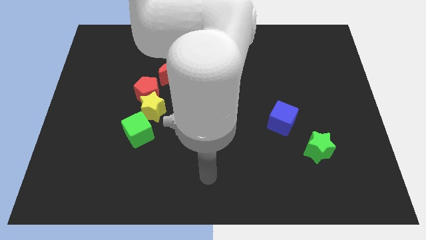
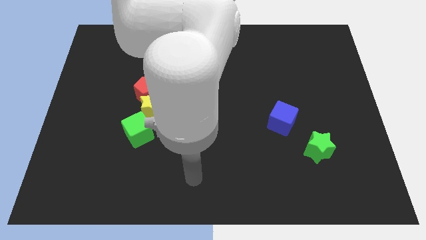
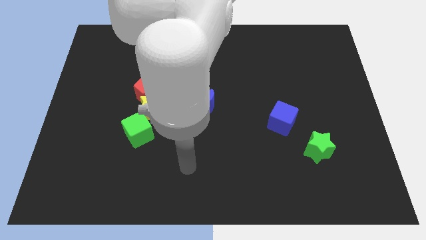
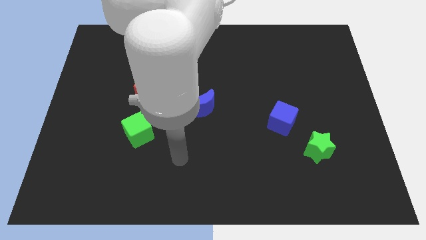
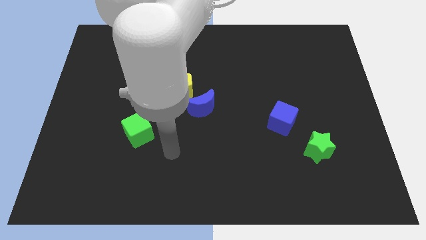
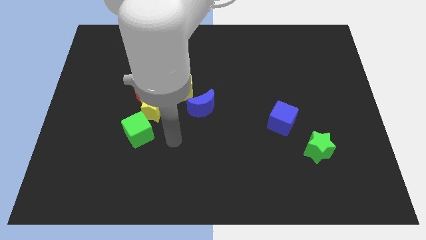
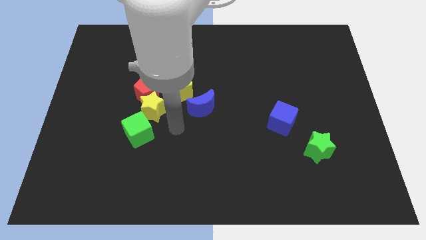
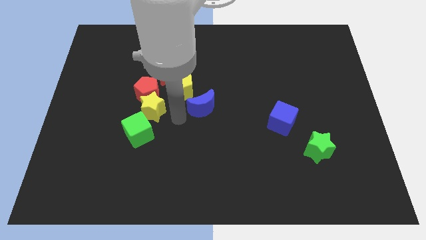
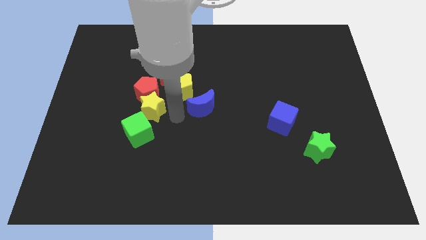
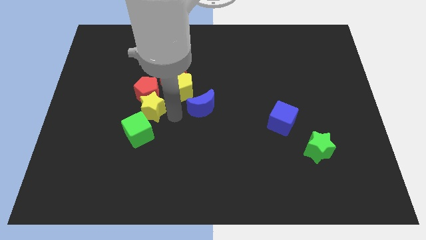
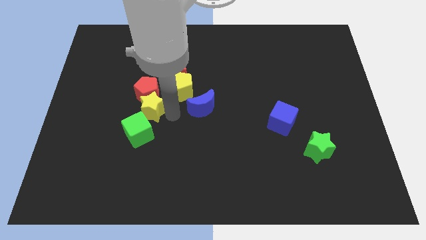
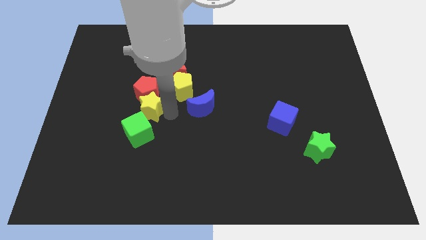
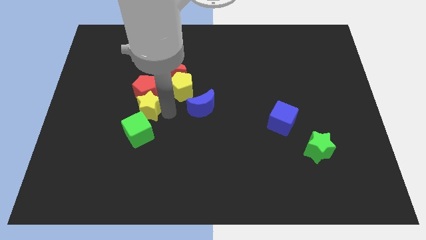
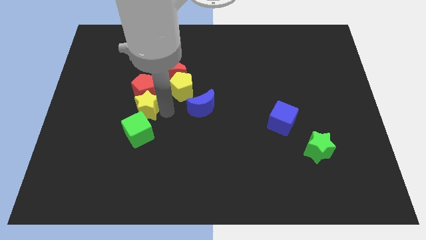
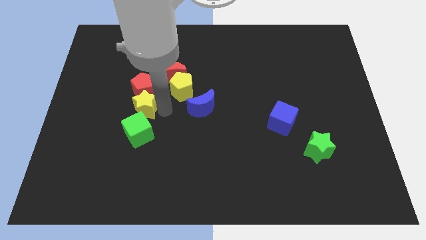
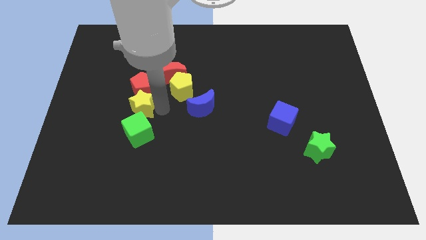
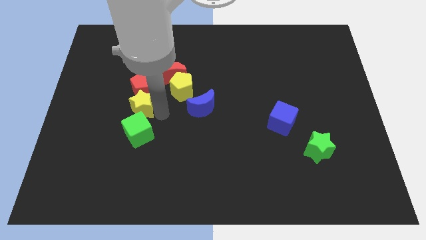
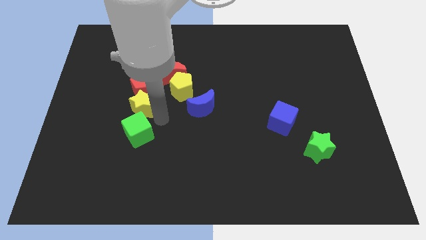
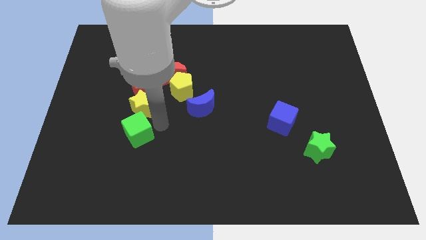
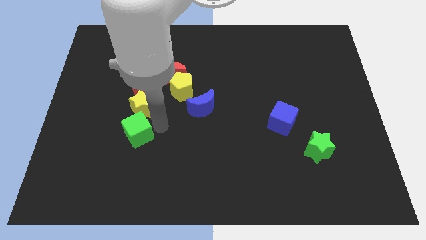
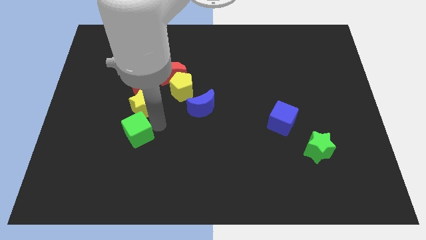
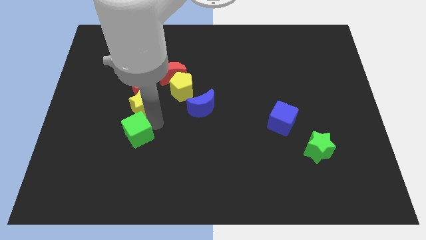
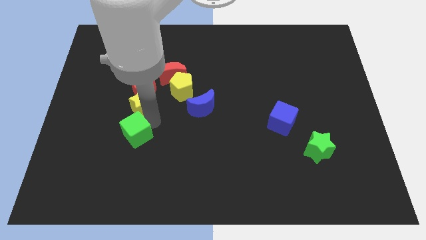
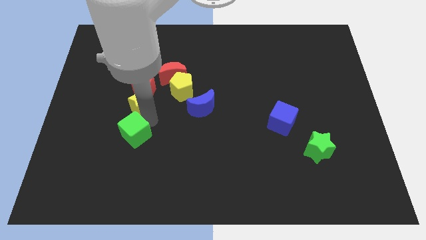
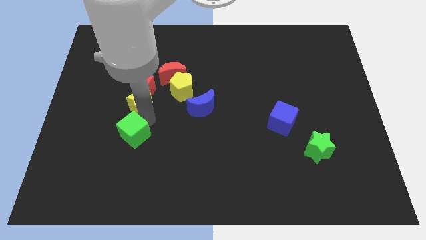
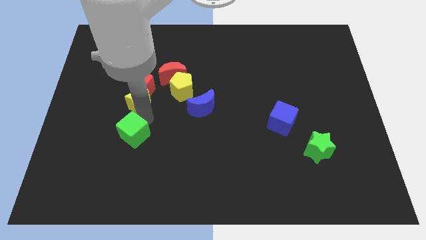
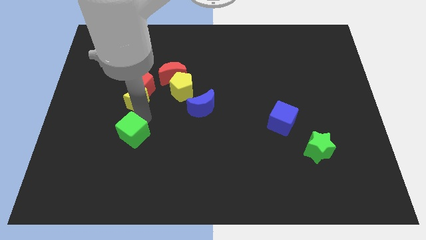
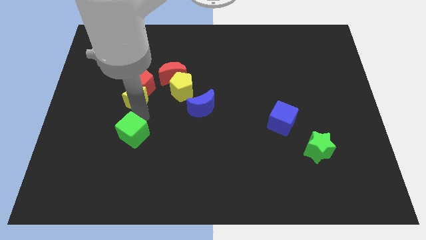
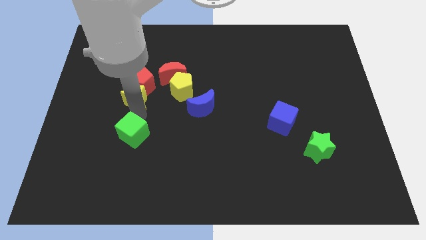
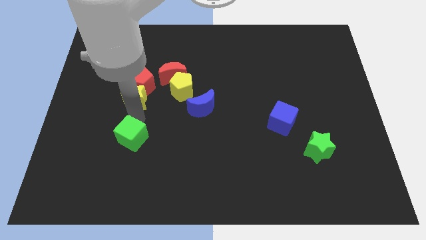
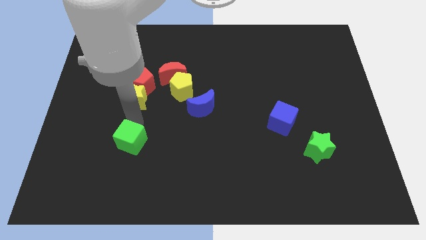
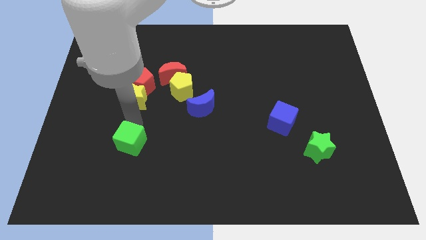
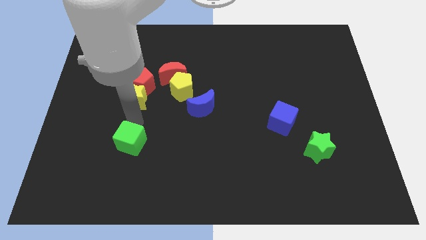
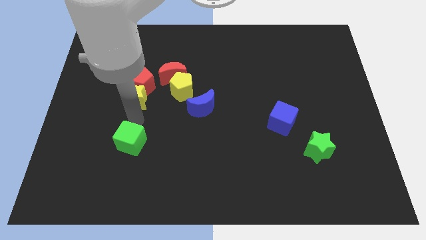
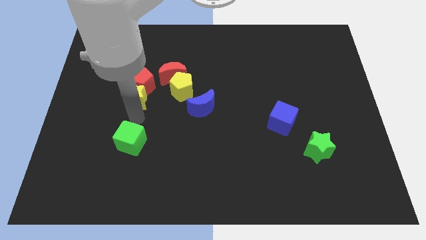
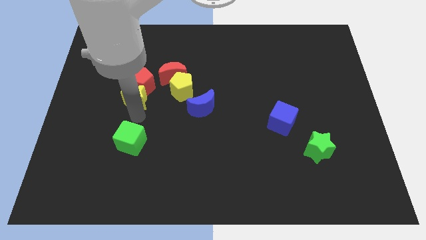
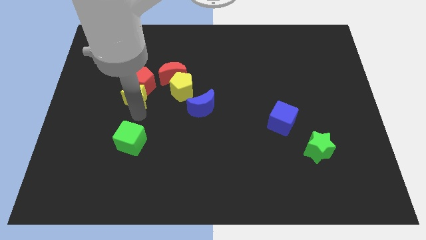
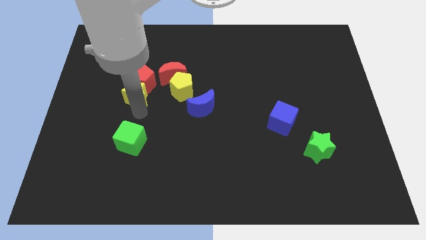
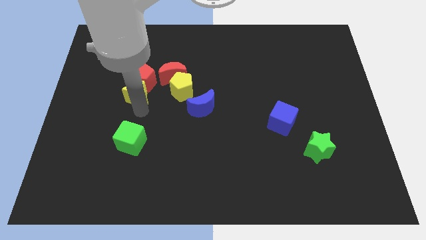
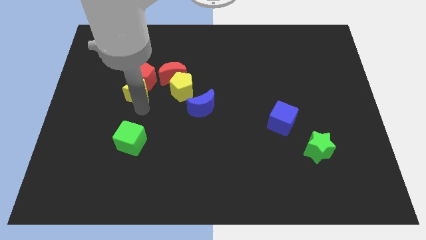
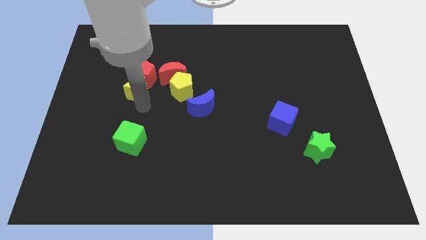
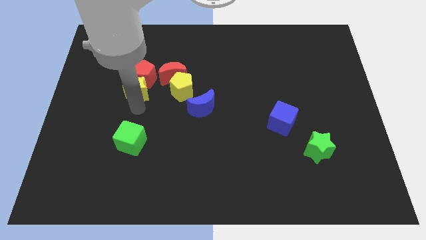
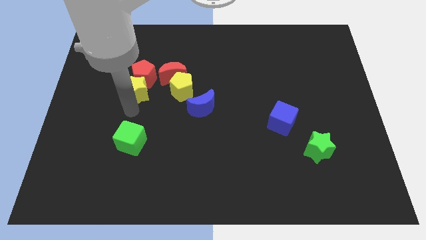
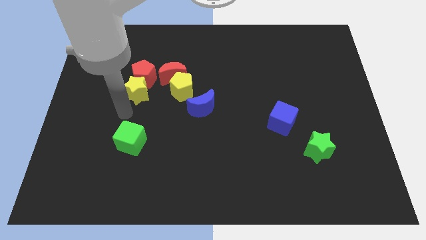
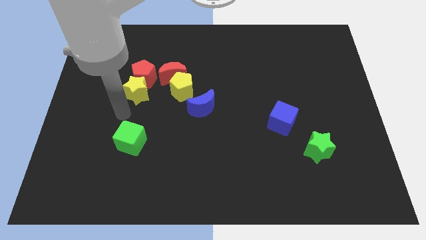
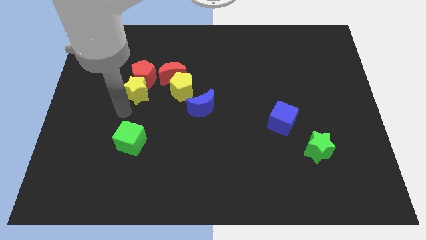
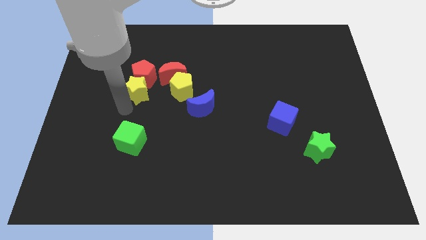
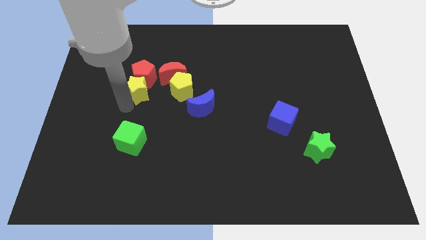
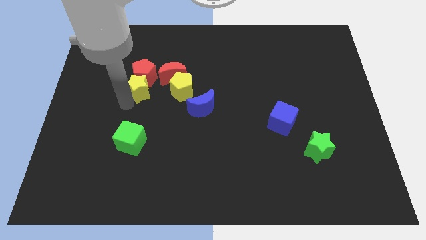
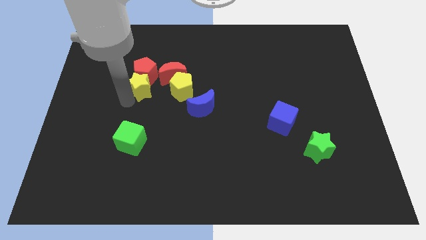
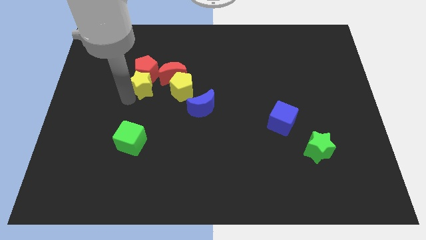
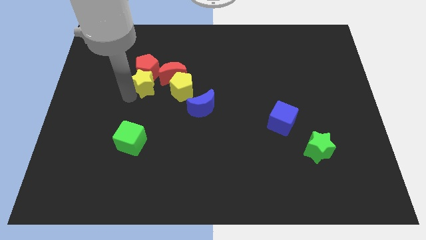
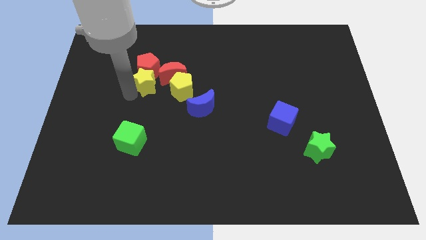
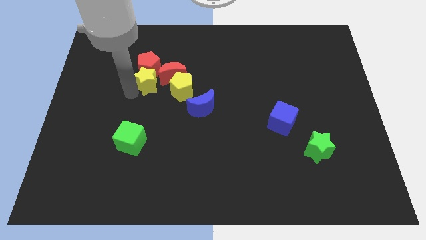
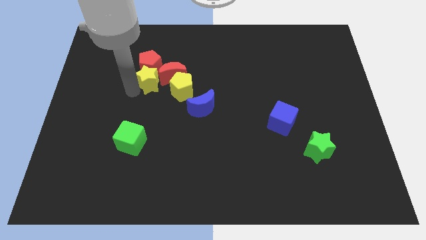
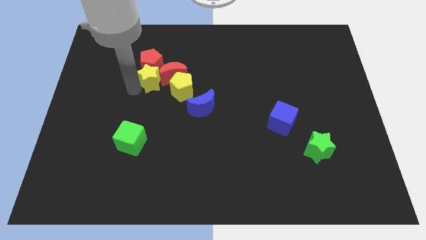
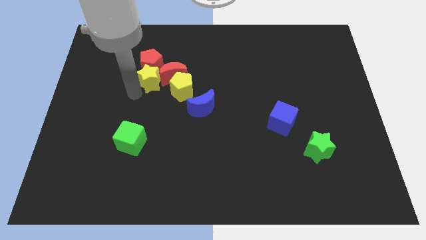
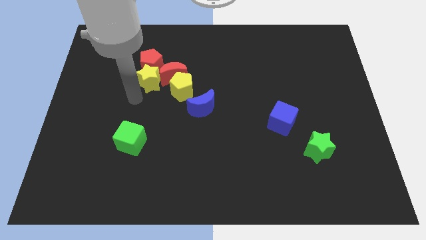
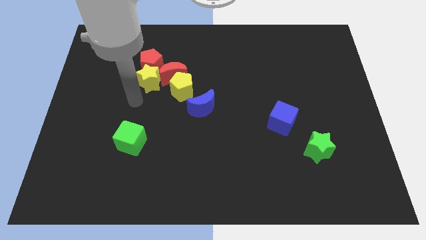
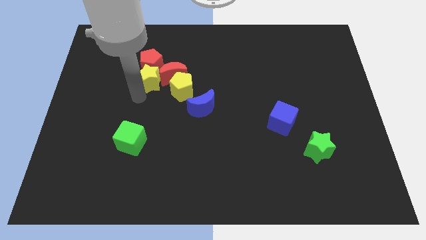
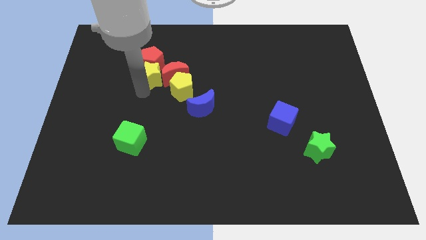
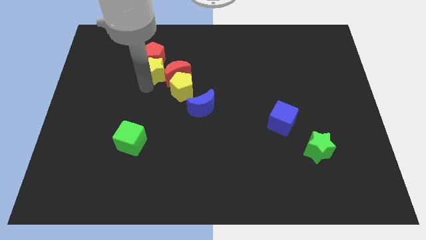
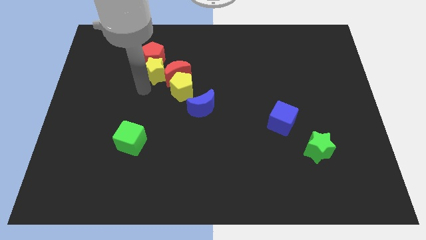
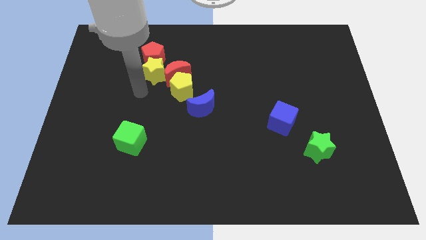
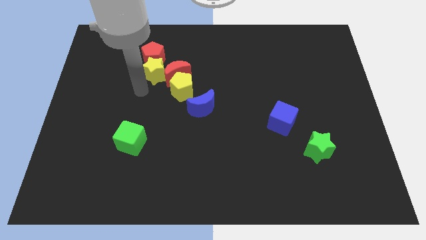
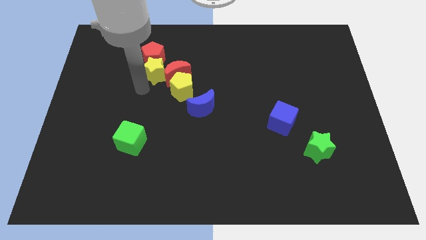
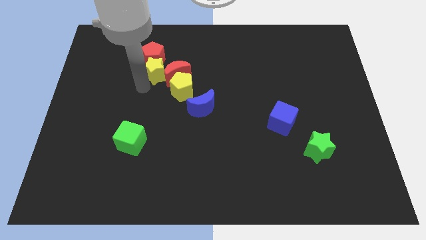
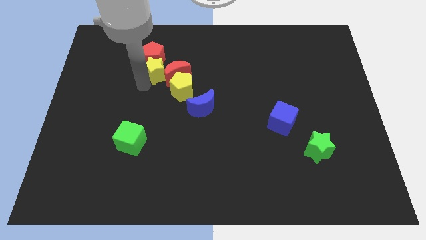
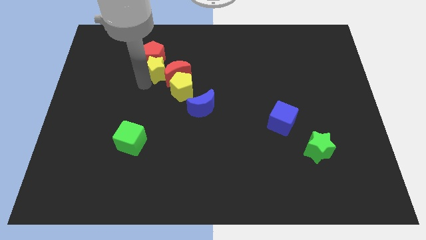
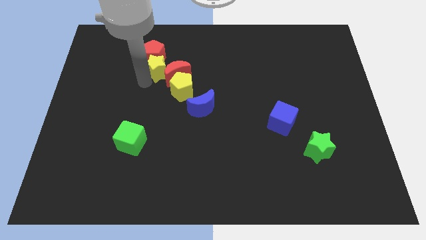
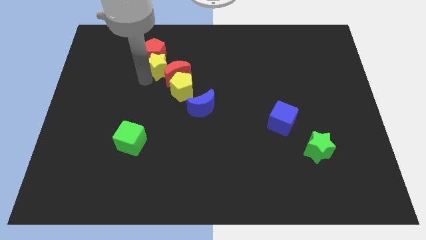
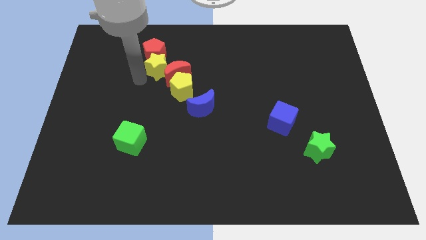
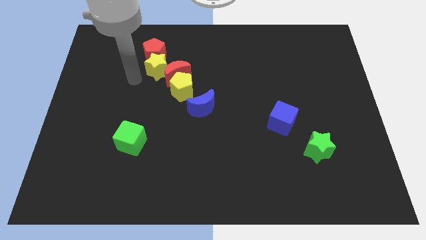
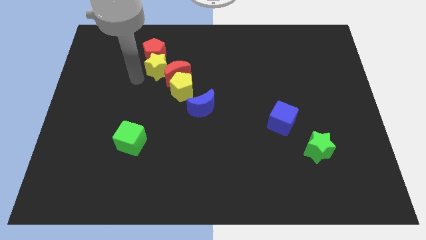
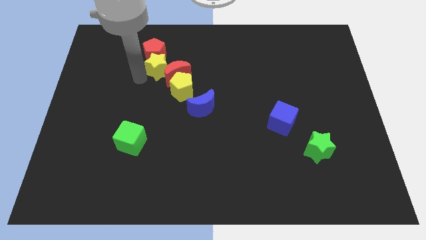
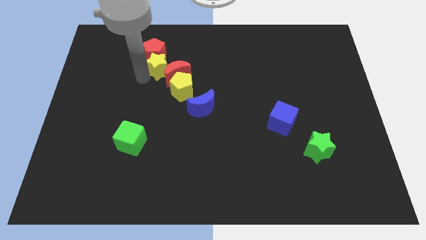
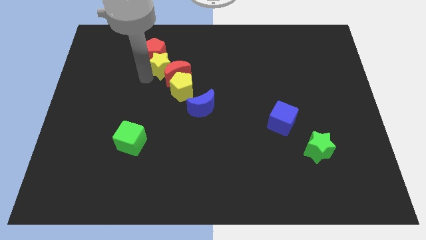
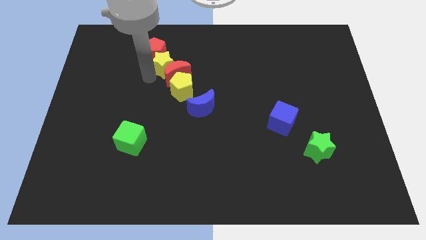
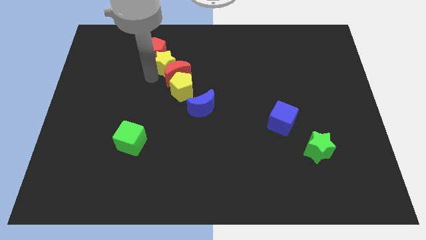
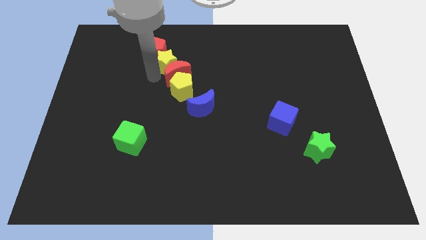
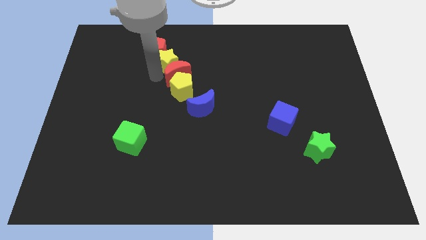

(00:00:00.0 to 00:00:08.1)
slide the yellow star to the top right side of the red moon
